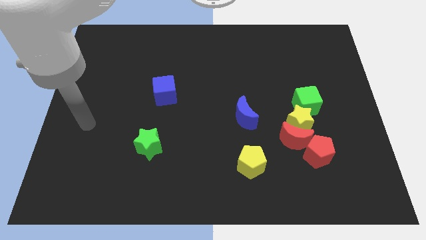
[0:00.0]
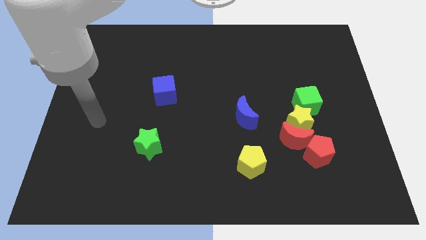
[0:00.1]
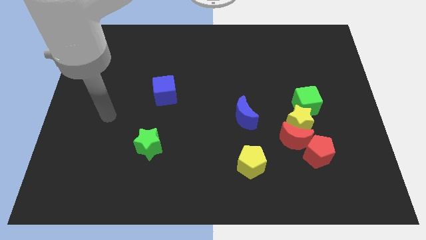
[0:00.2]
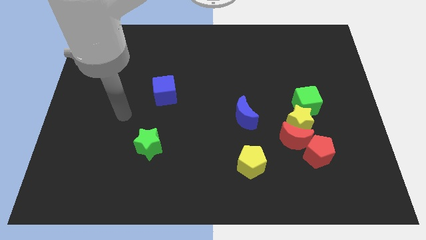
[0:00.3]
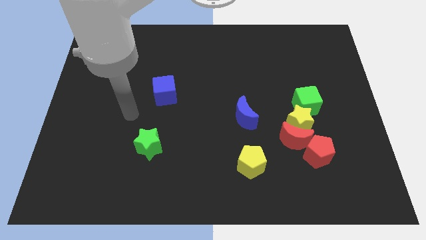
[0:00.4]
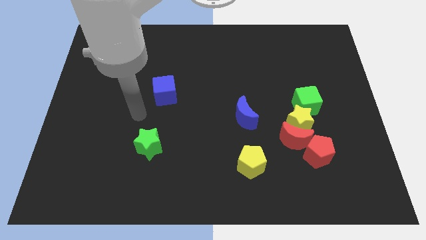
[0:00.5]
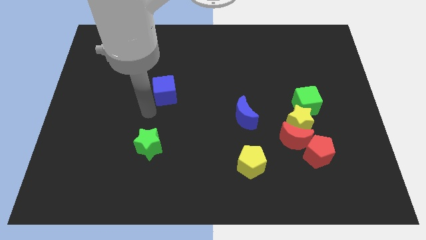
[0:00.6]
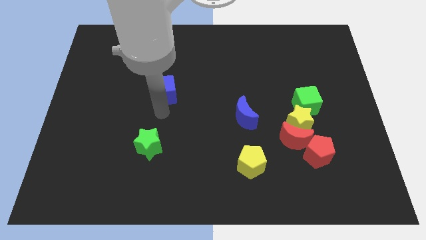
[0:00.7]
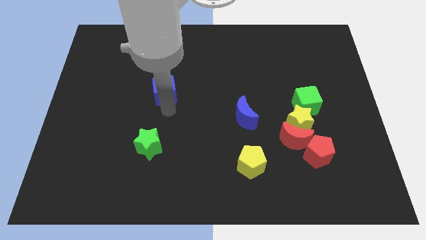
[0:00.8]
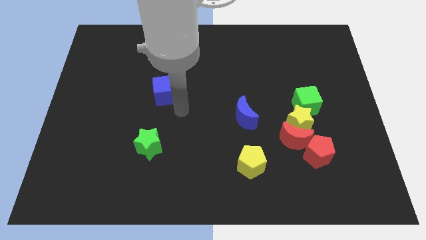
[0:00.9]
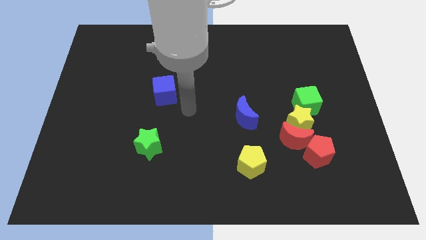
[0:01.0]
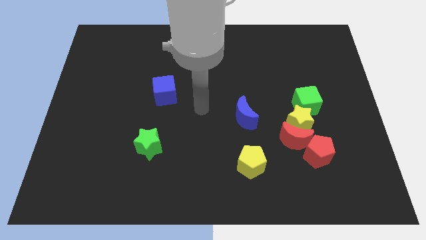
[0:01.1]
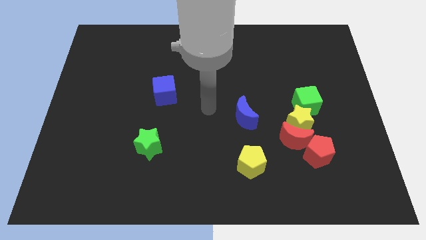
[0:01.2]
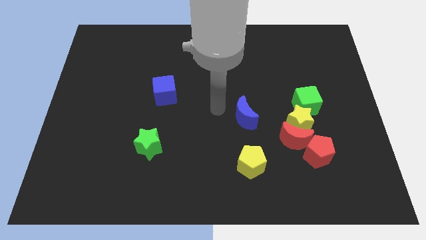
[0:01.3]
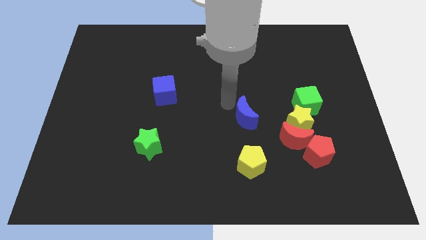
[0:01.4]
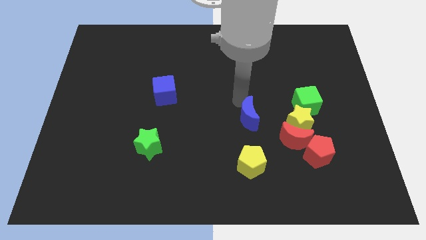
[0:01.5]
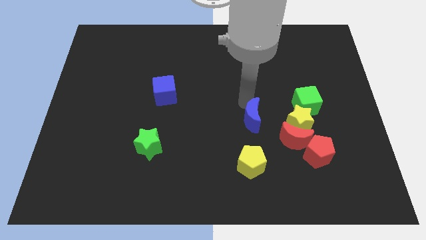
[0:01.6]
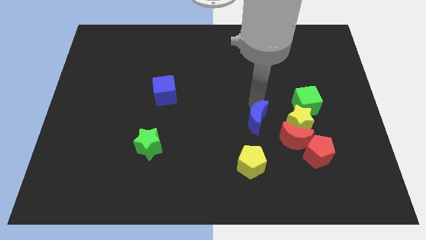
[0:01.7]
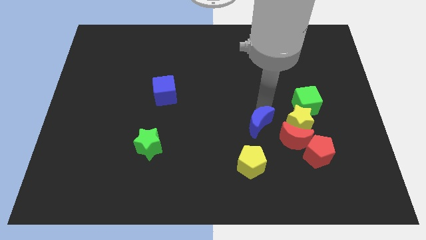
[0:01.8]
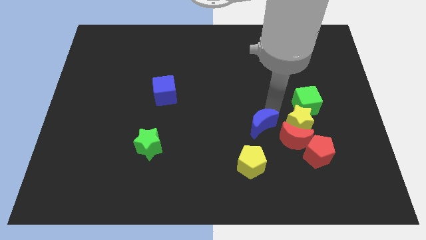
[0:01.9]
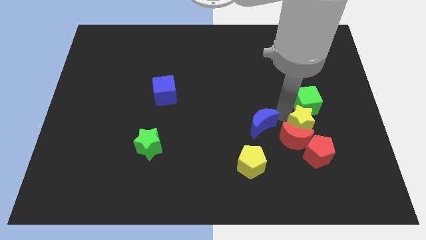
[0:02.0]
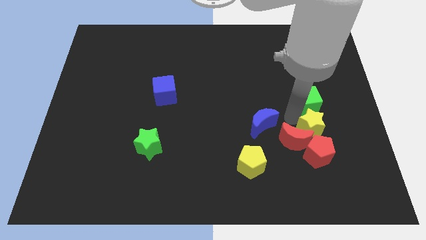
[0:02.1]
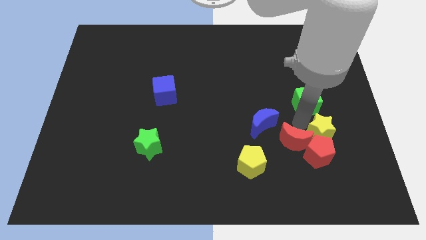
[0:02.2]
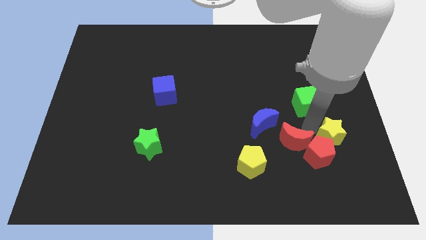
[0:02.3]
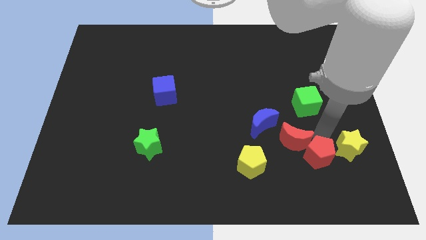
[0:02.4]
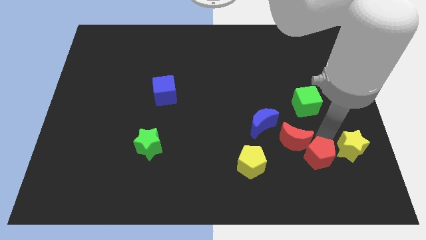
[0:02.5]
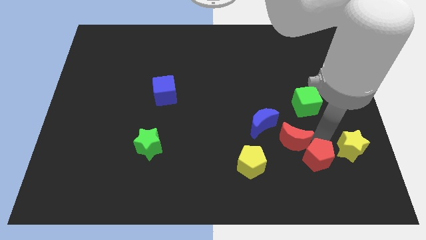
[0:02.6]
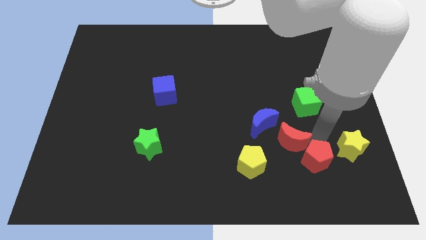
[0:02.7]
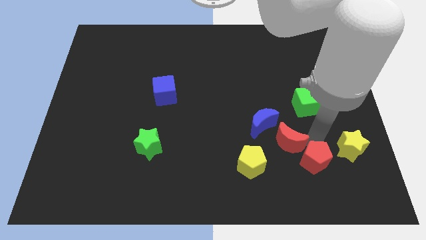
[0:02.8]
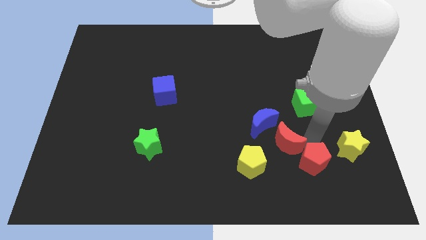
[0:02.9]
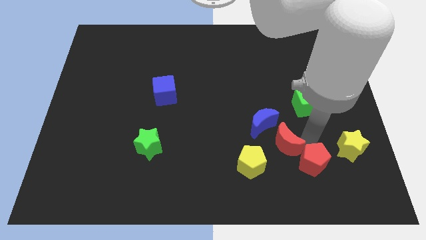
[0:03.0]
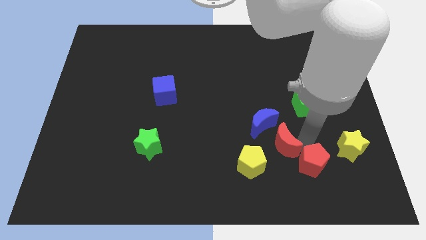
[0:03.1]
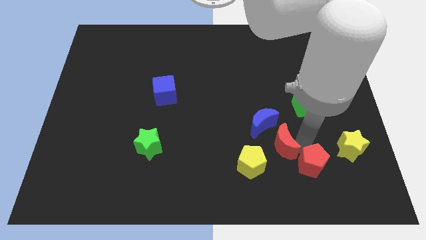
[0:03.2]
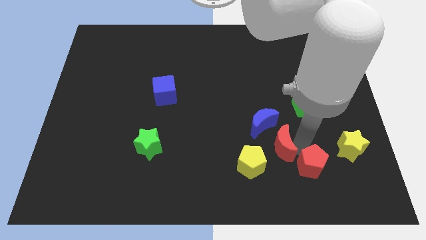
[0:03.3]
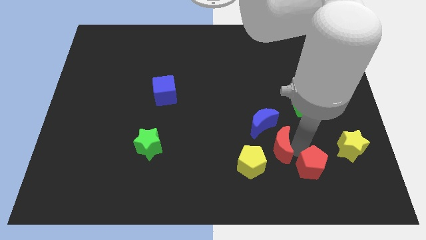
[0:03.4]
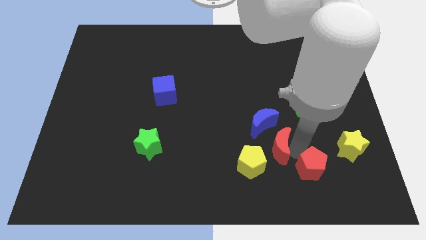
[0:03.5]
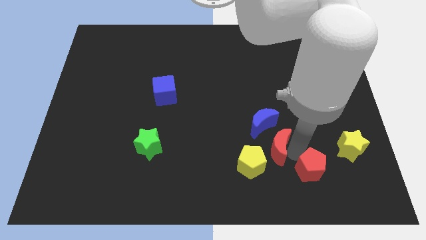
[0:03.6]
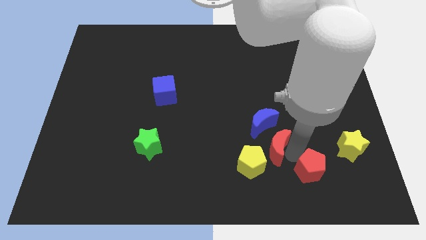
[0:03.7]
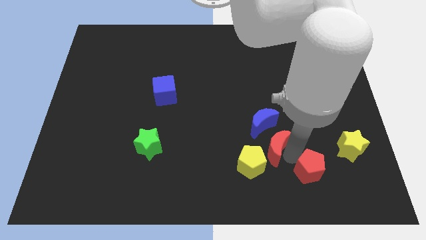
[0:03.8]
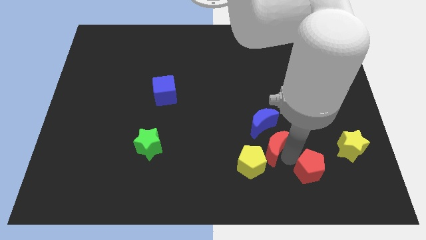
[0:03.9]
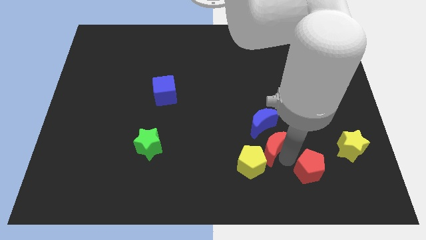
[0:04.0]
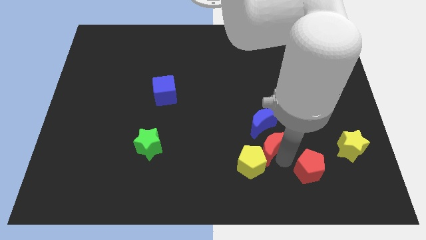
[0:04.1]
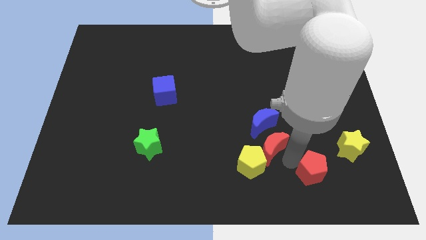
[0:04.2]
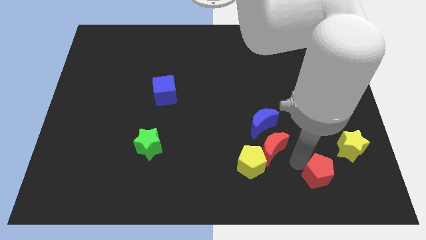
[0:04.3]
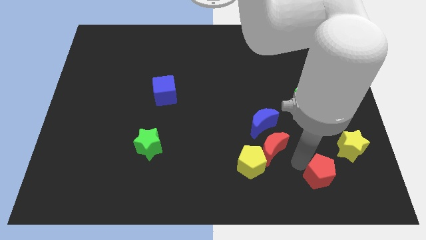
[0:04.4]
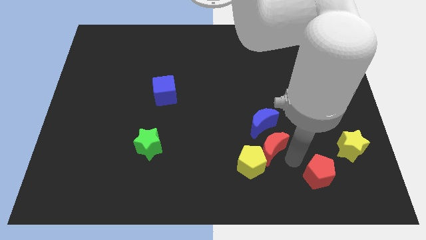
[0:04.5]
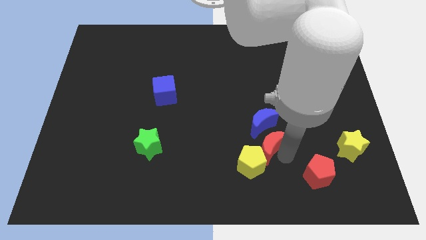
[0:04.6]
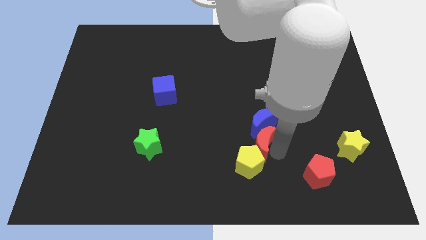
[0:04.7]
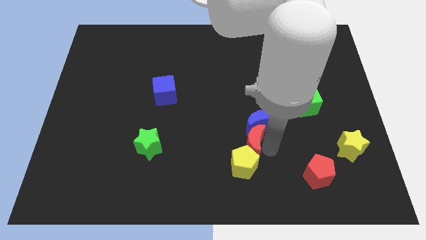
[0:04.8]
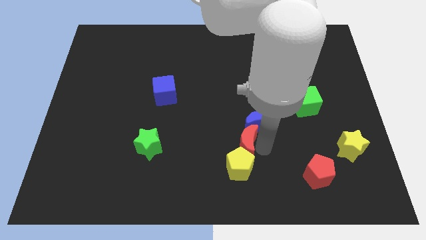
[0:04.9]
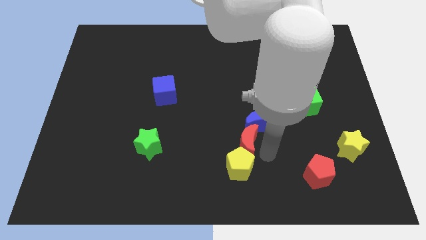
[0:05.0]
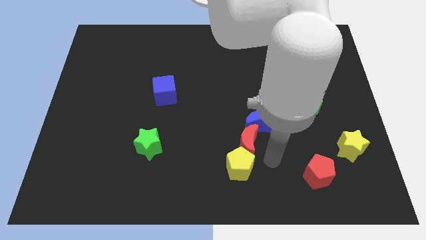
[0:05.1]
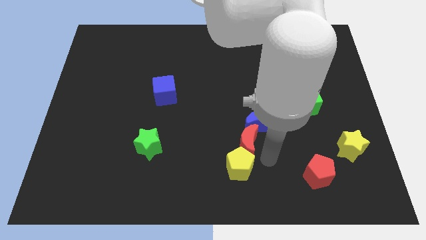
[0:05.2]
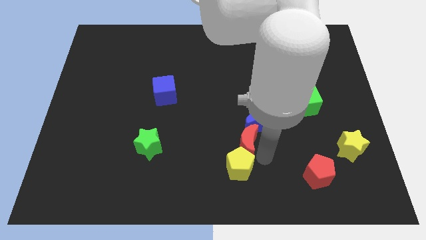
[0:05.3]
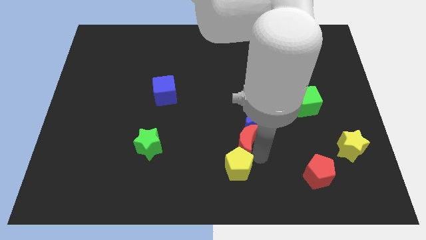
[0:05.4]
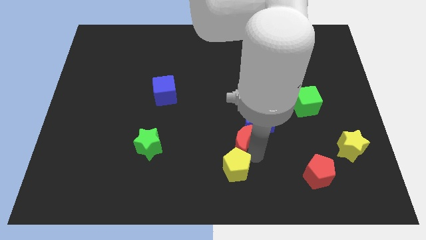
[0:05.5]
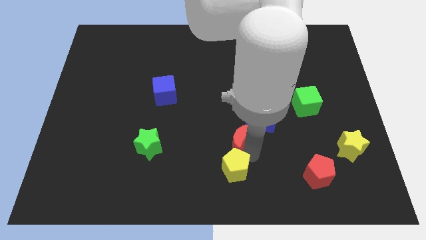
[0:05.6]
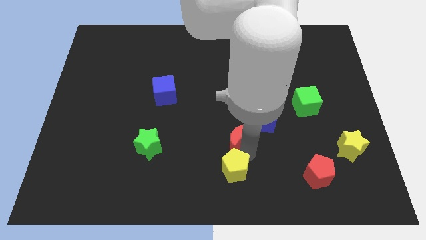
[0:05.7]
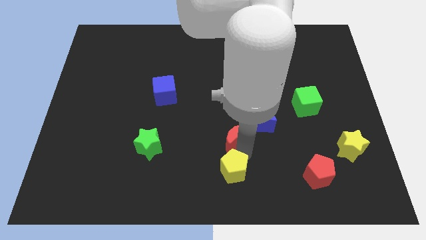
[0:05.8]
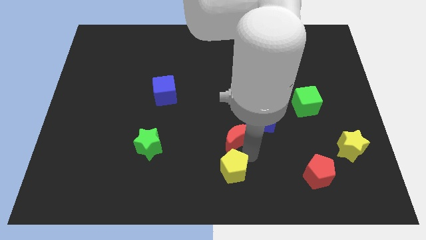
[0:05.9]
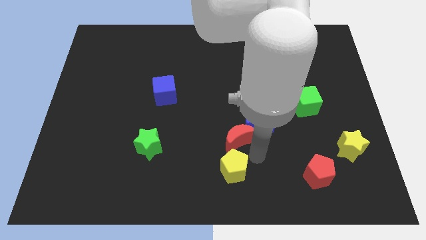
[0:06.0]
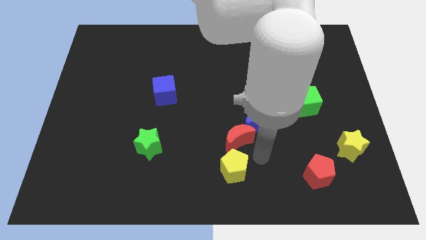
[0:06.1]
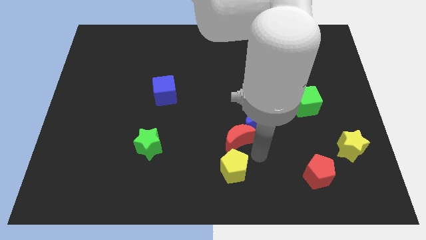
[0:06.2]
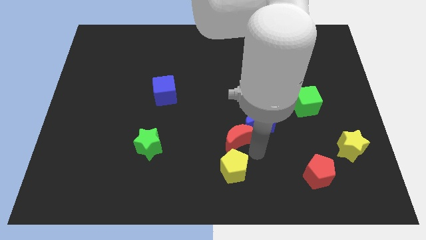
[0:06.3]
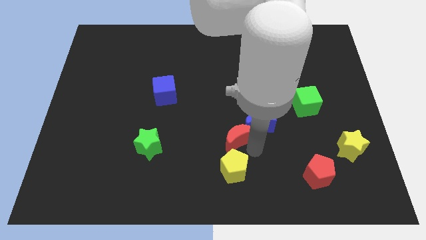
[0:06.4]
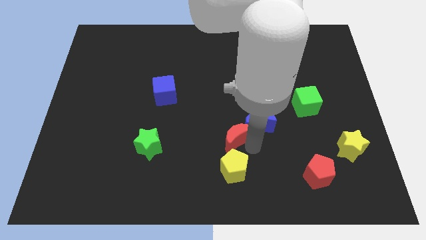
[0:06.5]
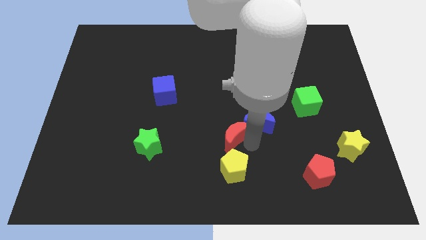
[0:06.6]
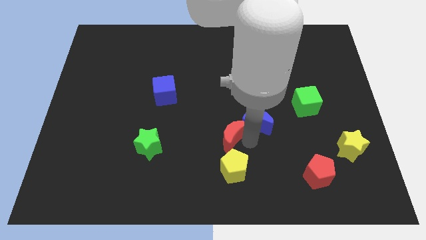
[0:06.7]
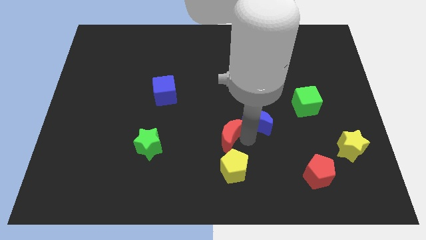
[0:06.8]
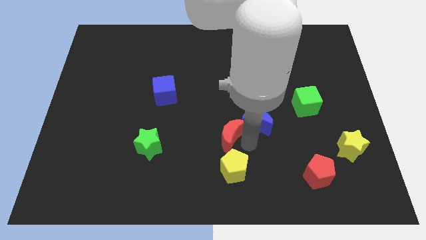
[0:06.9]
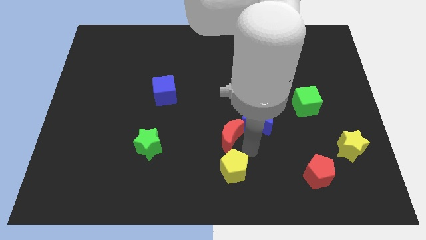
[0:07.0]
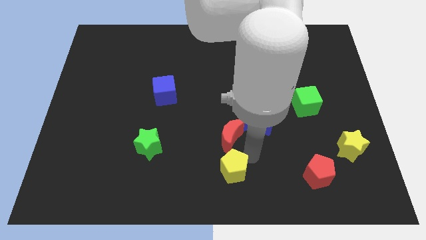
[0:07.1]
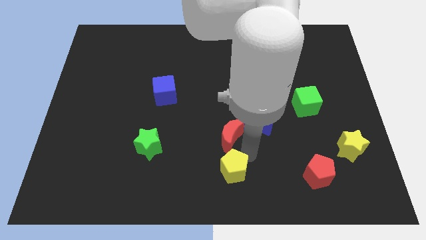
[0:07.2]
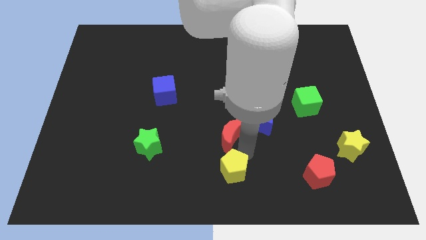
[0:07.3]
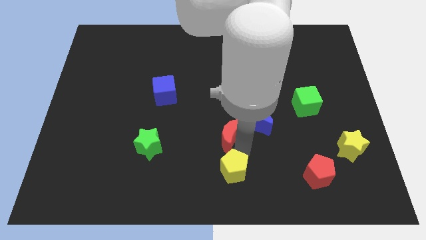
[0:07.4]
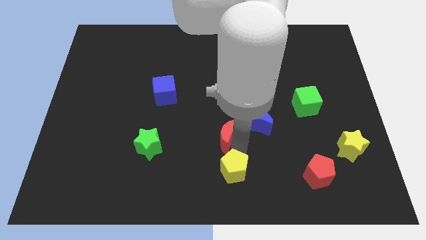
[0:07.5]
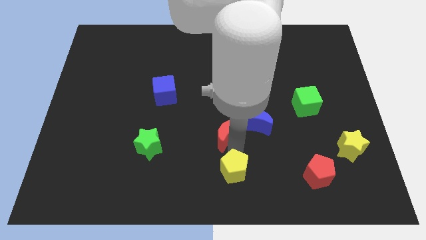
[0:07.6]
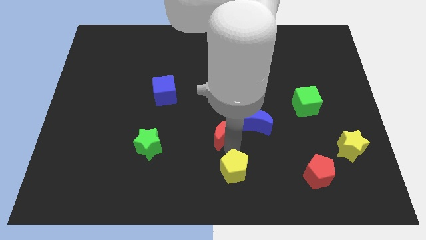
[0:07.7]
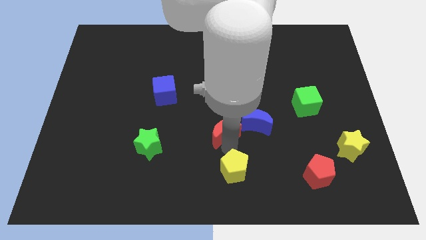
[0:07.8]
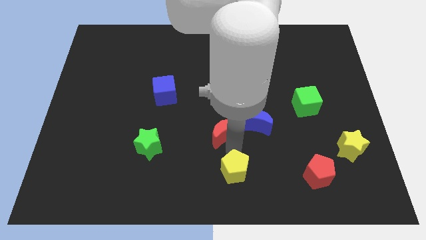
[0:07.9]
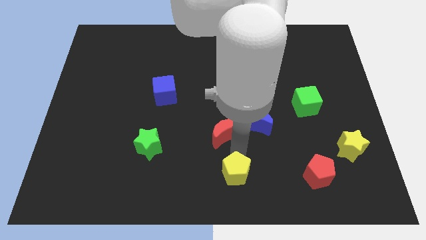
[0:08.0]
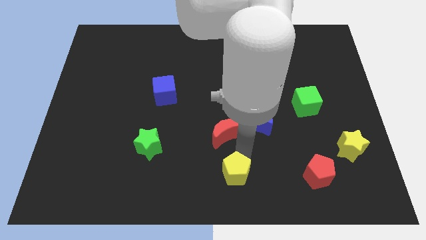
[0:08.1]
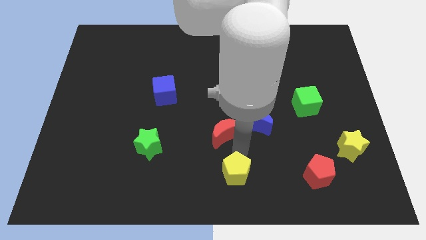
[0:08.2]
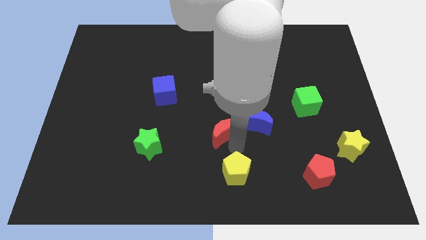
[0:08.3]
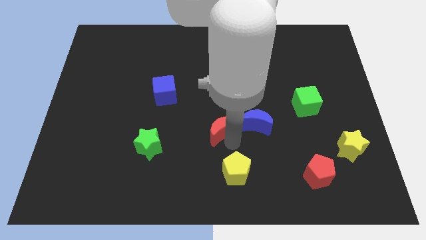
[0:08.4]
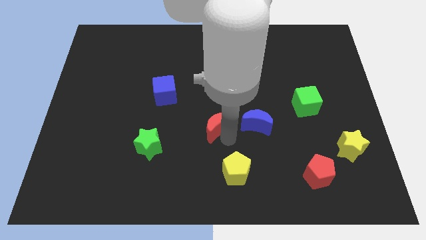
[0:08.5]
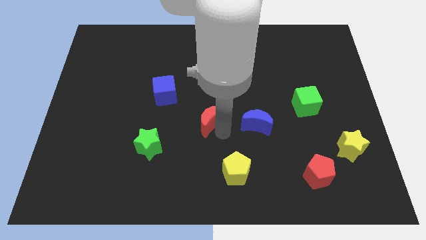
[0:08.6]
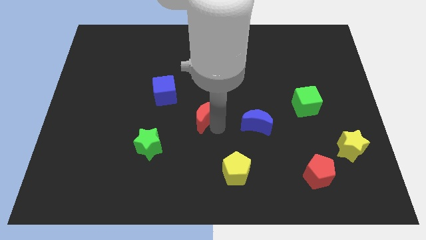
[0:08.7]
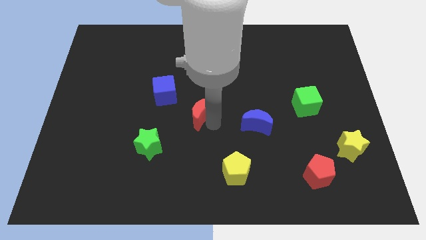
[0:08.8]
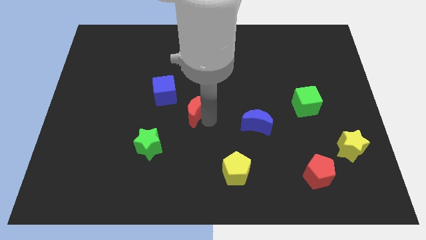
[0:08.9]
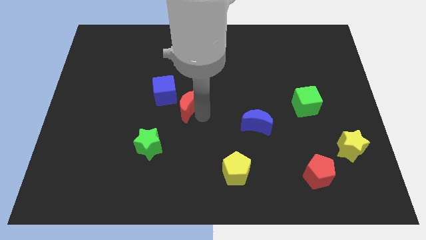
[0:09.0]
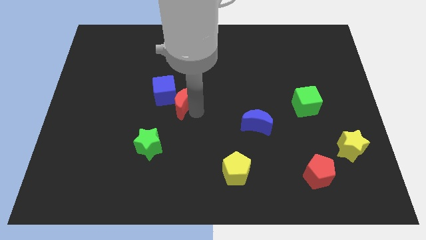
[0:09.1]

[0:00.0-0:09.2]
put the red moon towards the blue cube
